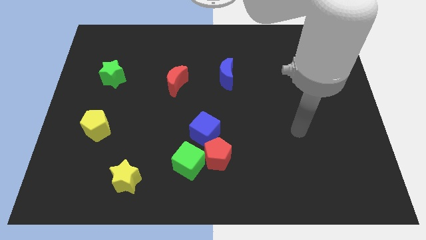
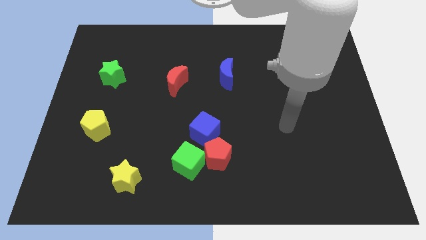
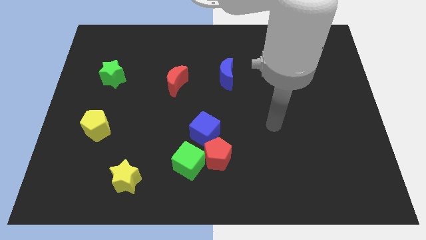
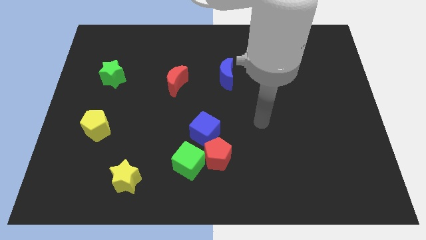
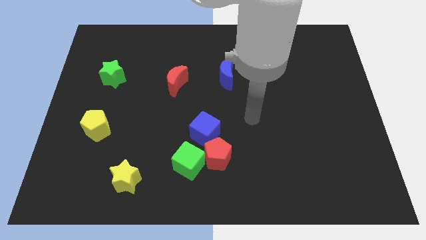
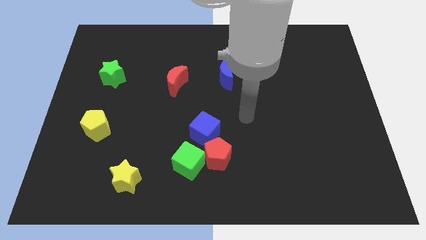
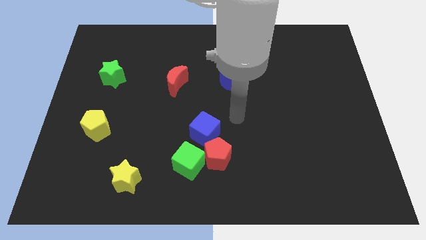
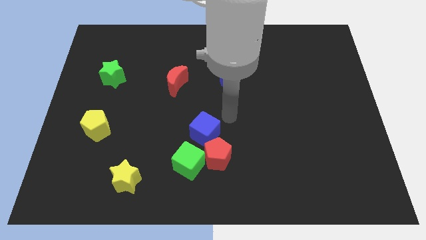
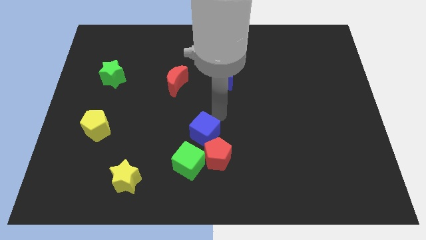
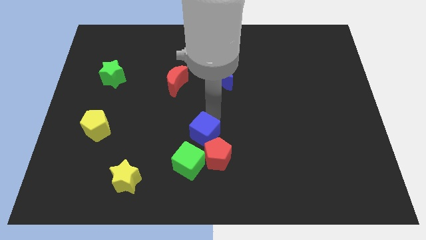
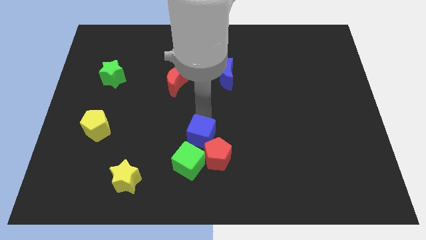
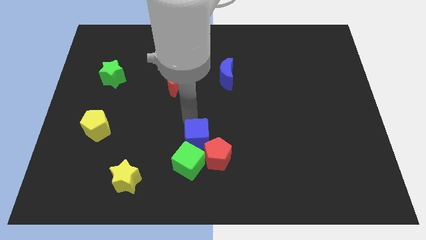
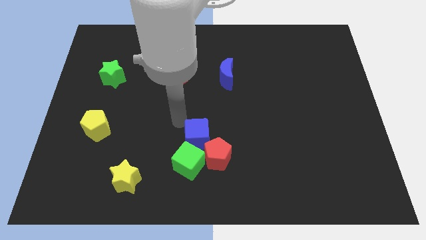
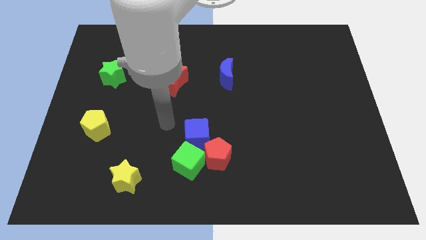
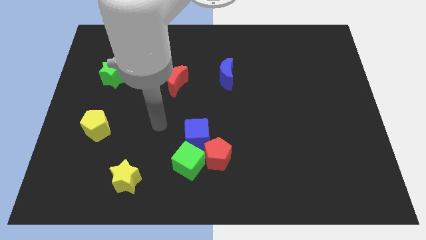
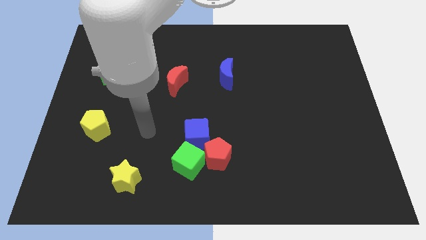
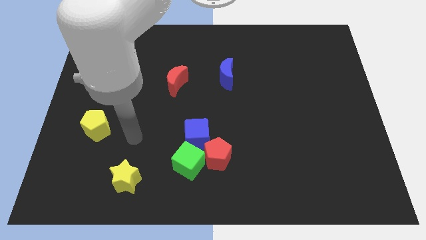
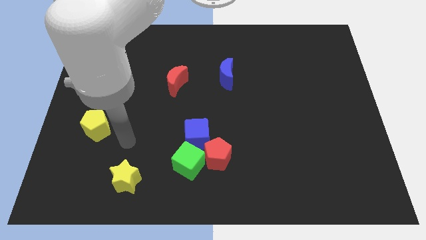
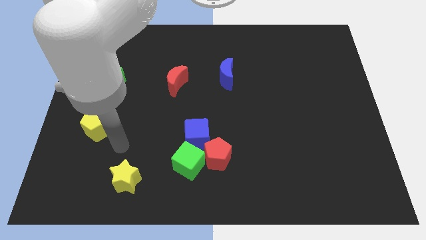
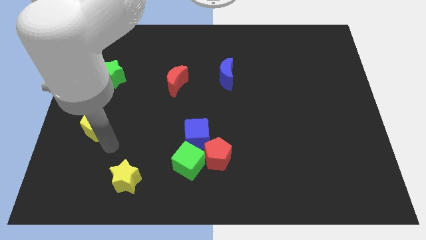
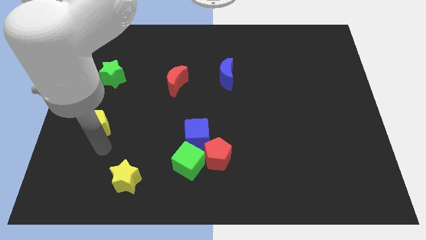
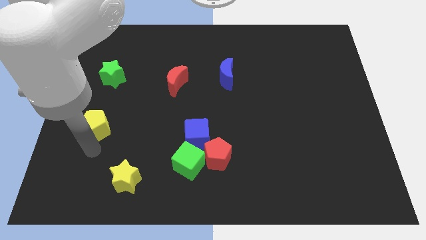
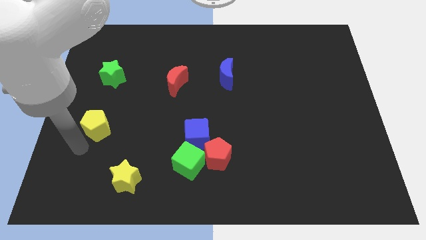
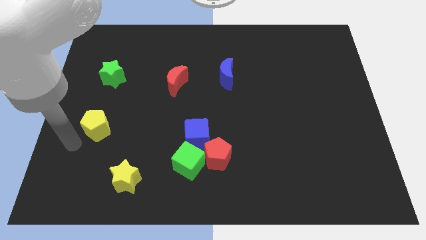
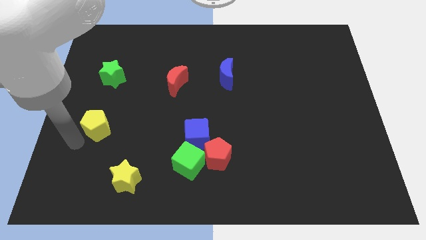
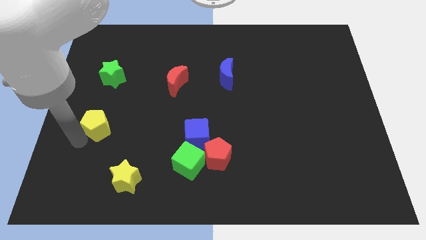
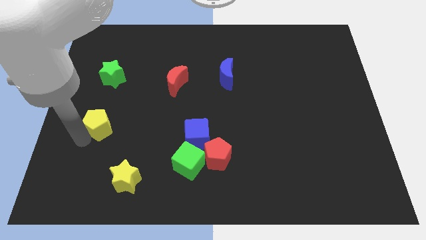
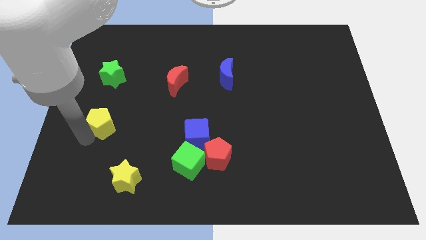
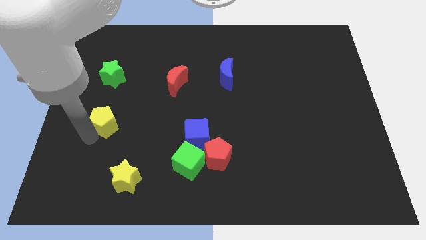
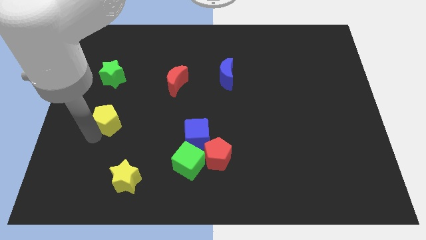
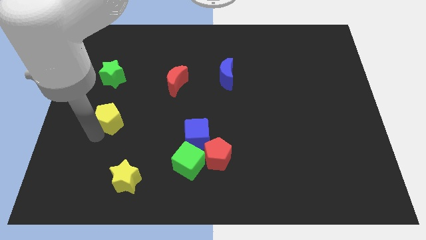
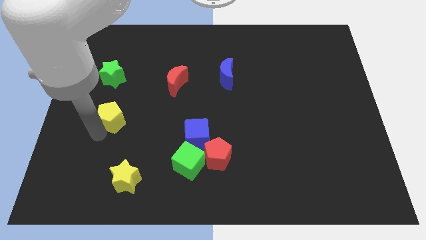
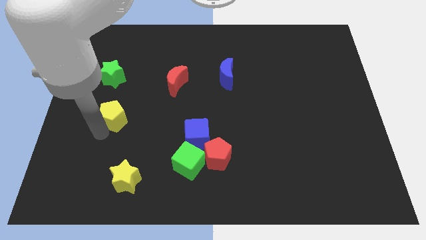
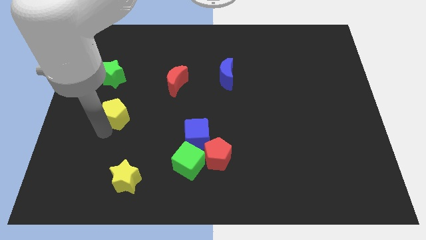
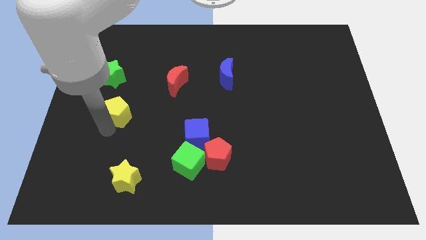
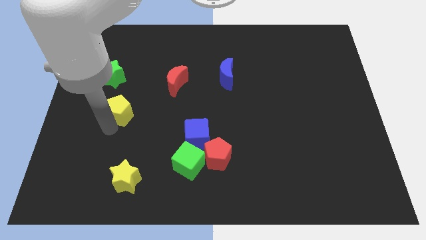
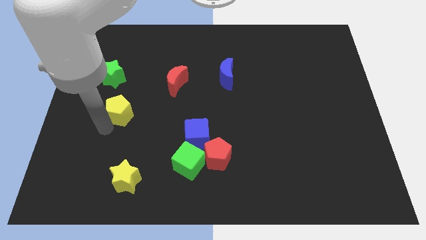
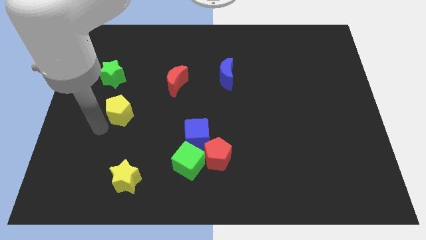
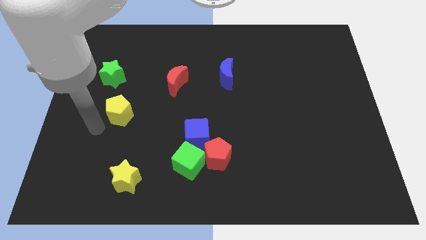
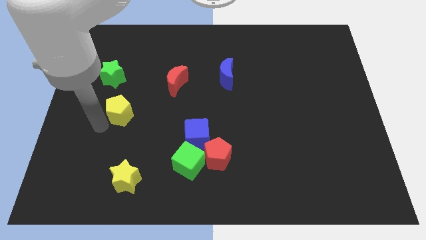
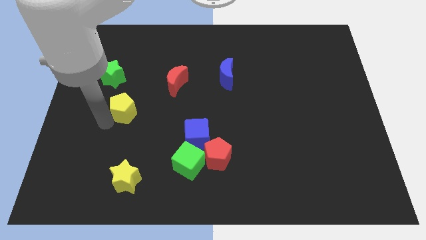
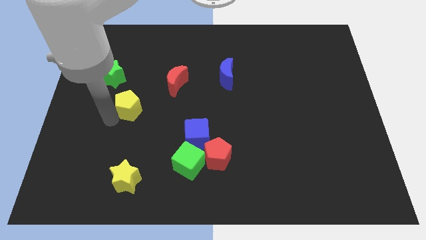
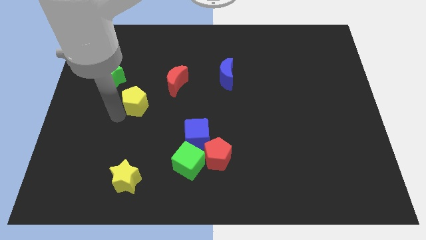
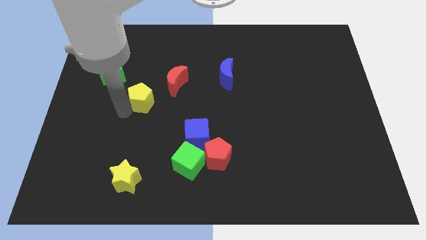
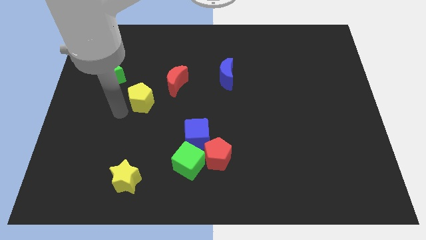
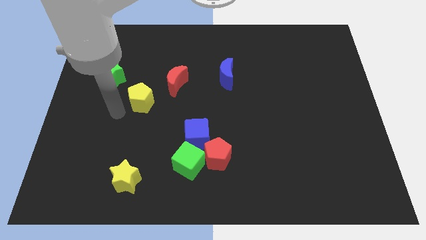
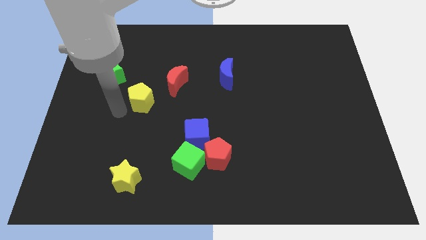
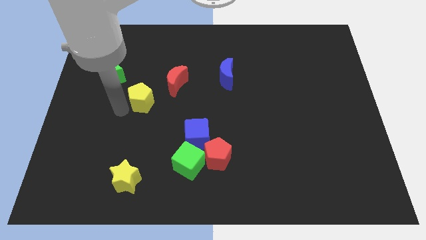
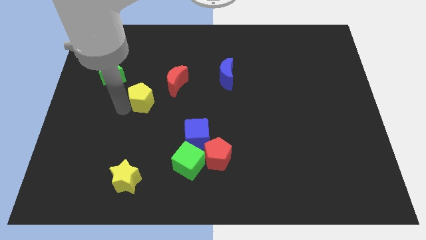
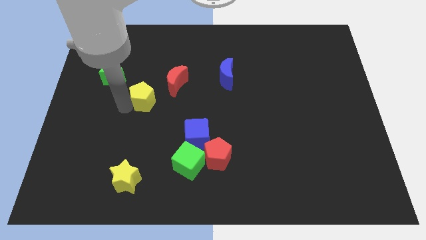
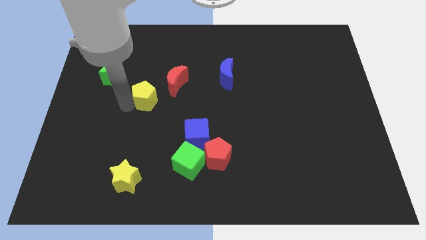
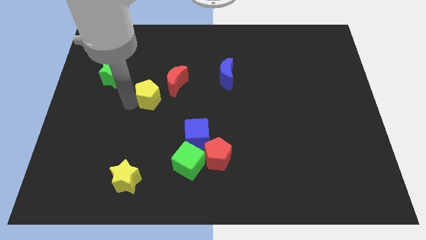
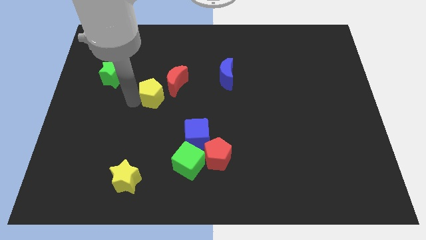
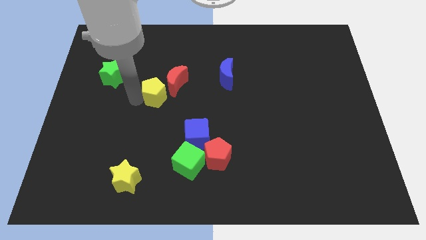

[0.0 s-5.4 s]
move the yellow pentagon towards the red moon

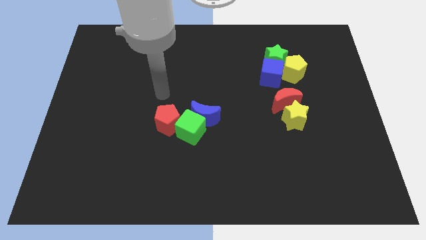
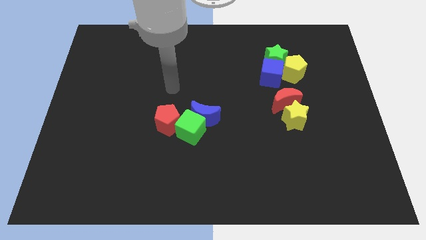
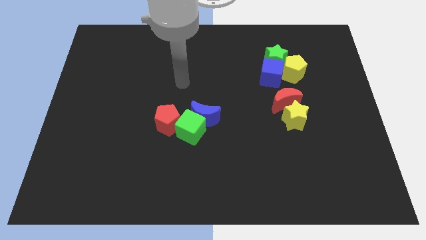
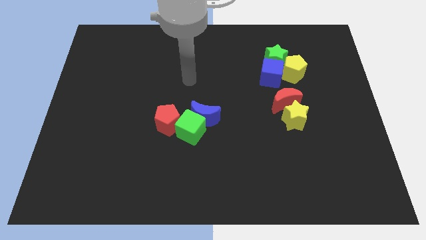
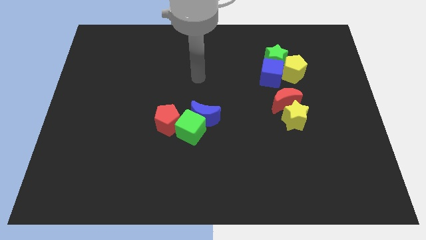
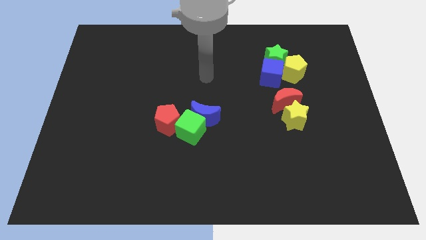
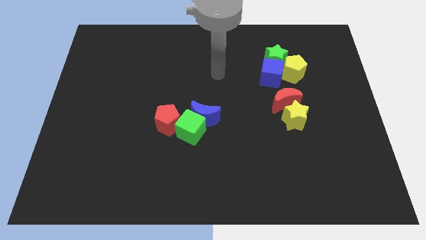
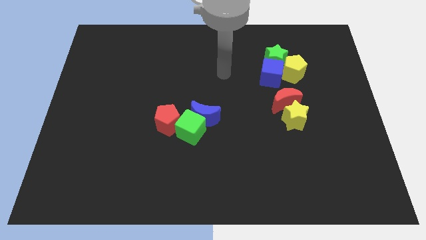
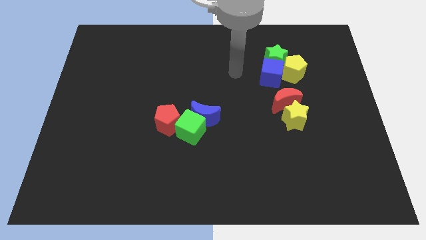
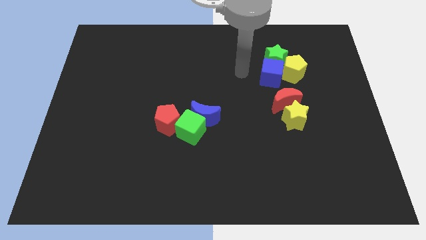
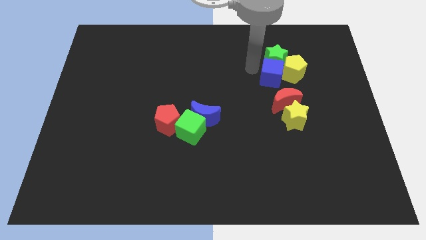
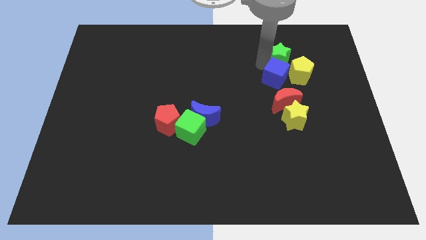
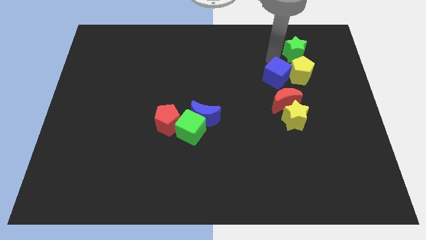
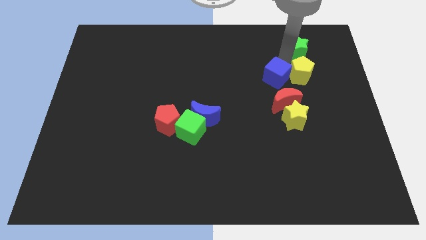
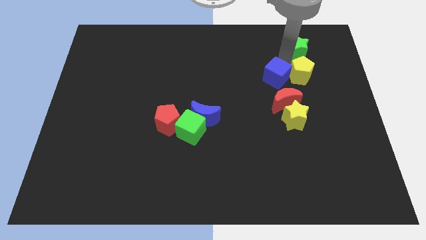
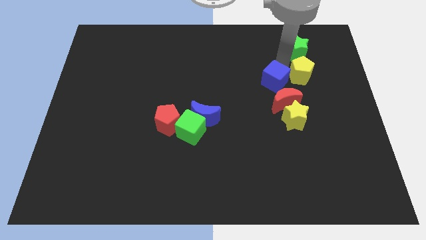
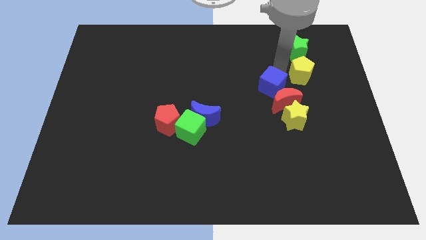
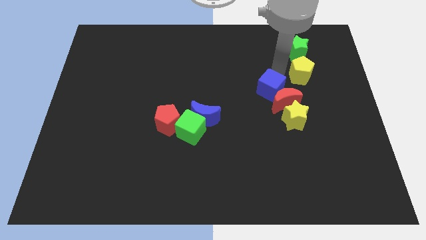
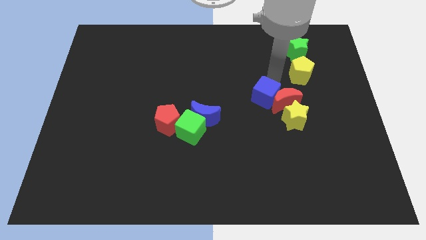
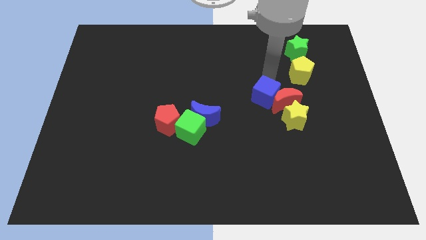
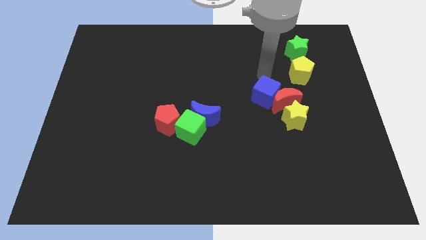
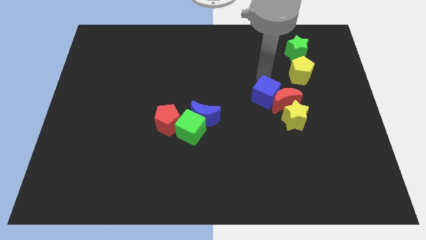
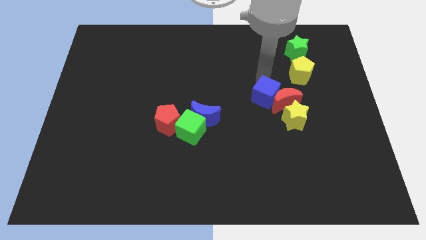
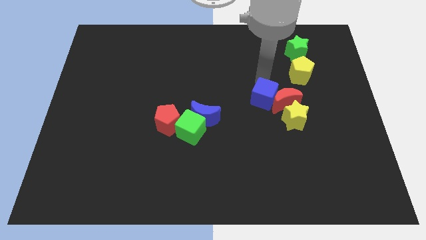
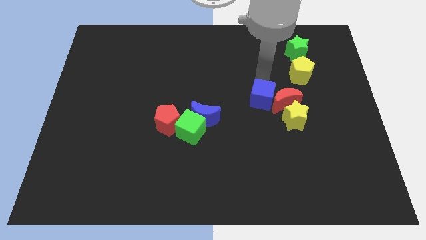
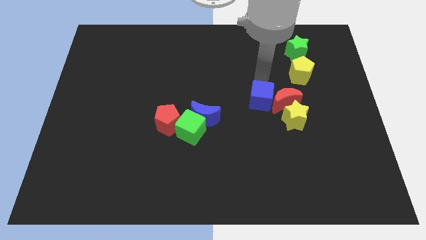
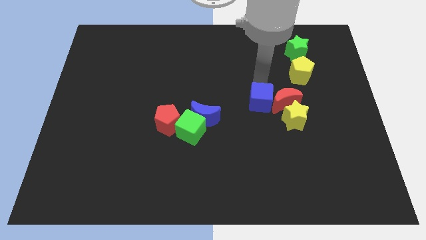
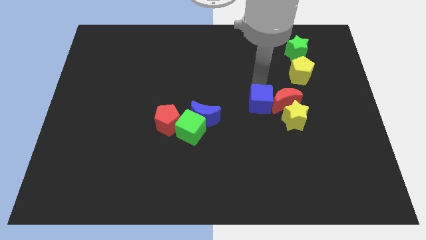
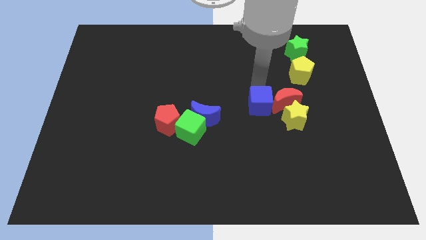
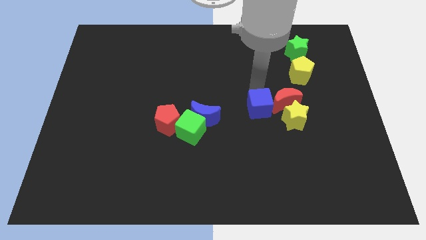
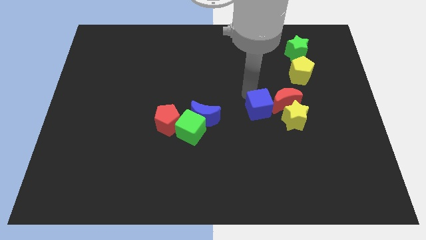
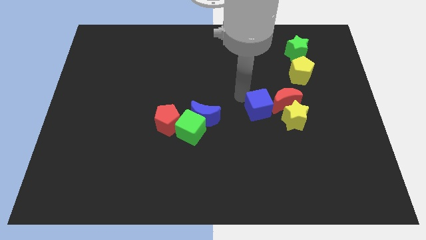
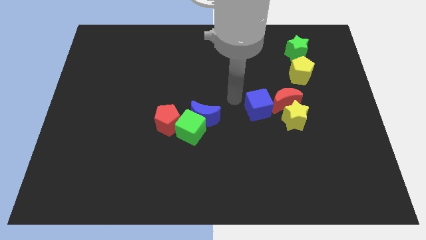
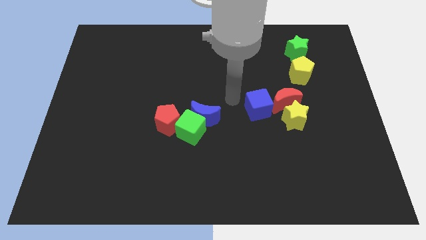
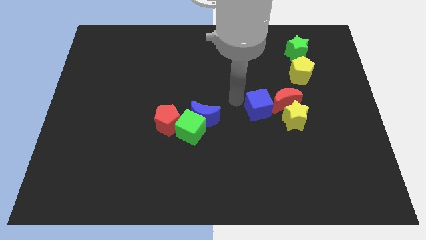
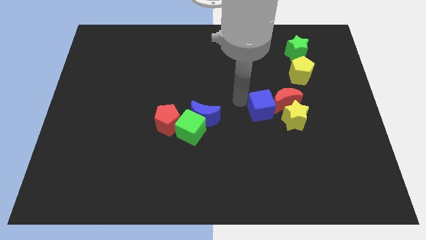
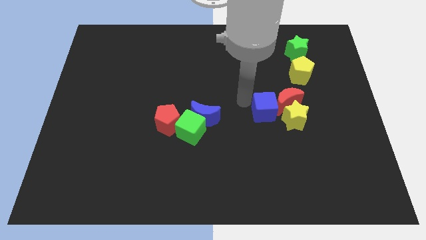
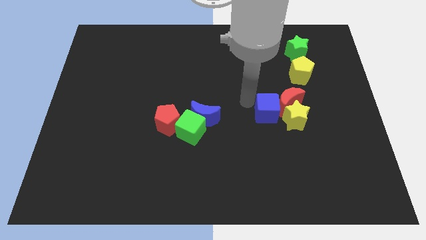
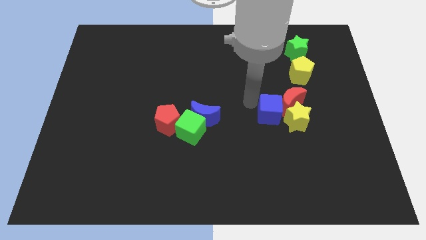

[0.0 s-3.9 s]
slide the blue cube to the yellow star
